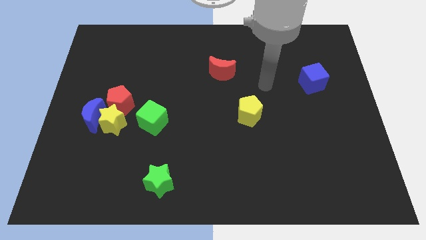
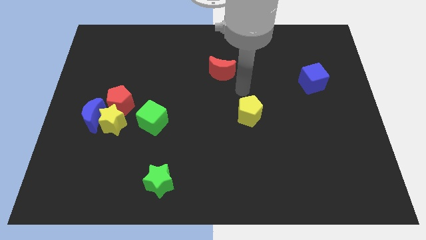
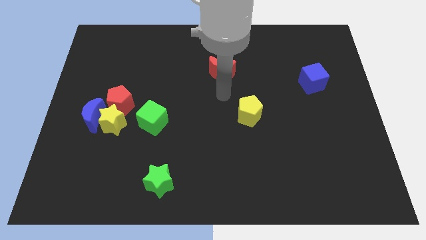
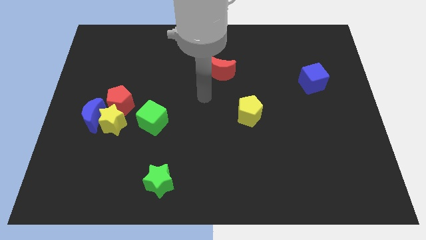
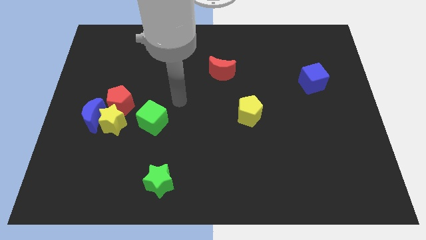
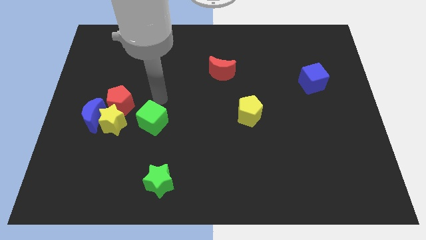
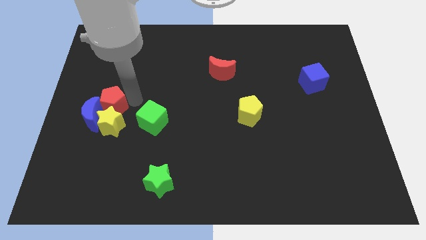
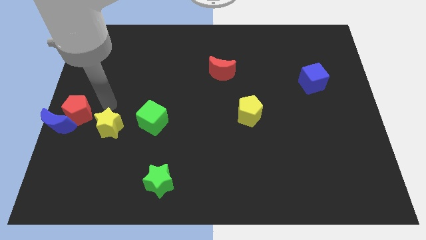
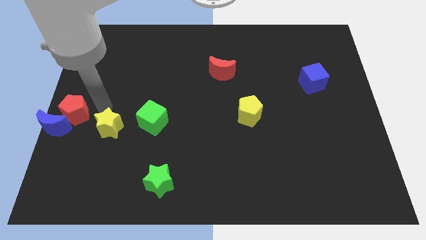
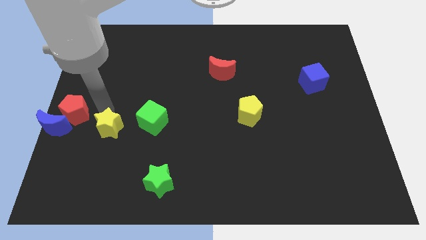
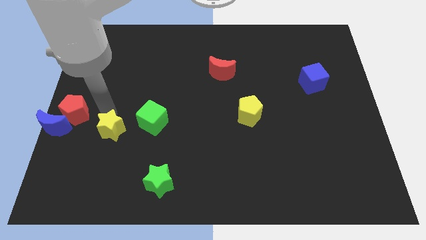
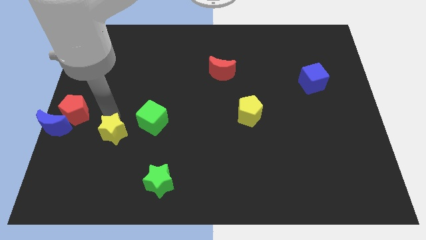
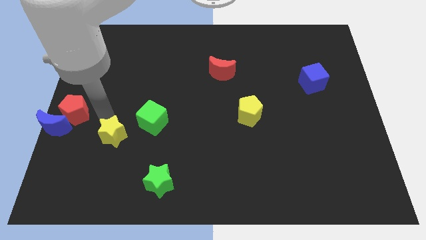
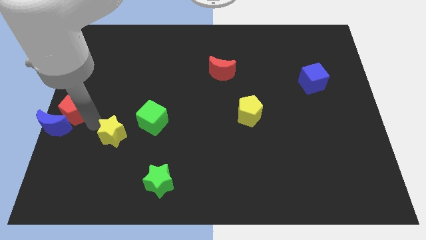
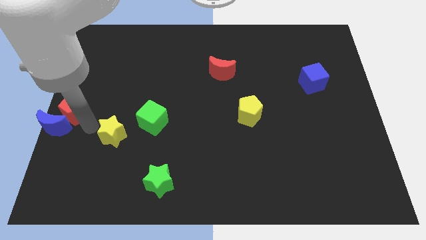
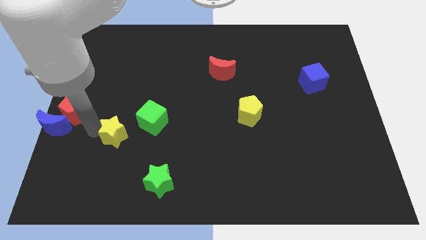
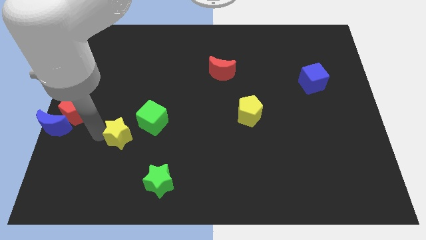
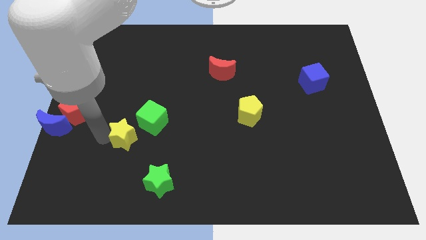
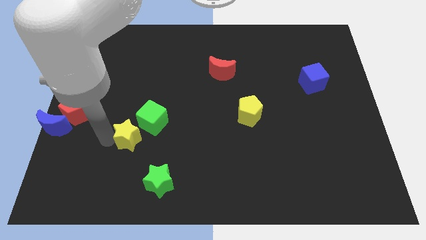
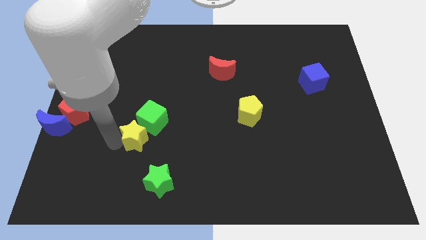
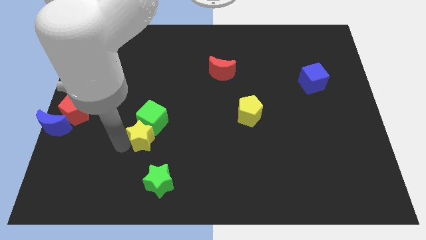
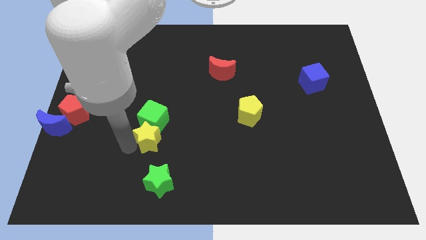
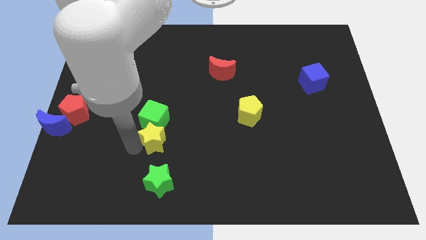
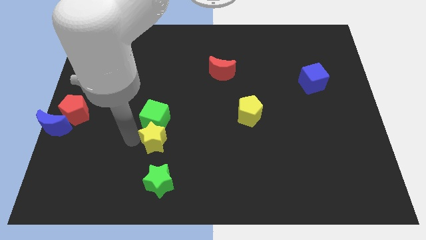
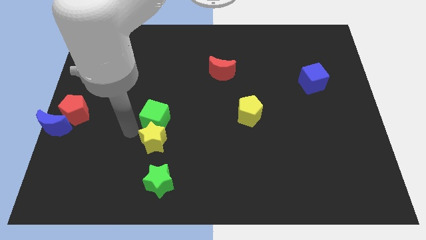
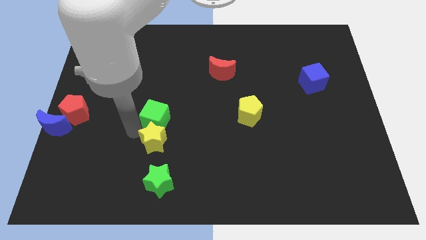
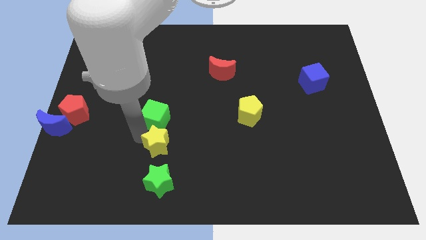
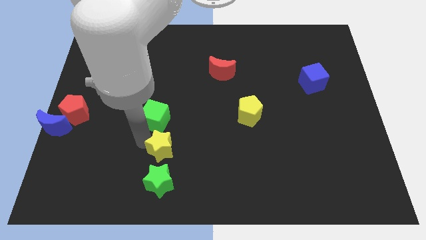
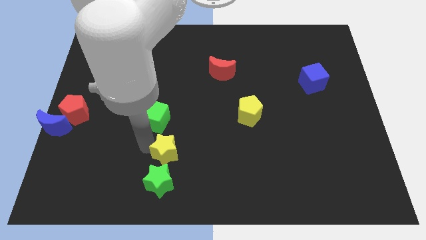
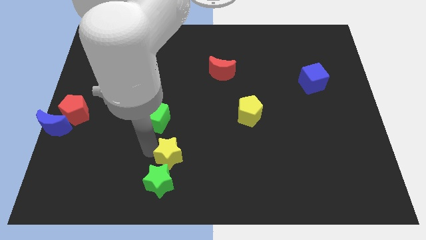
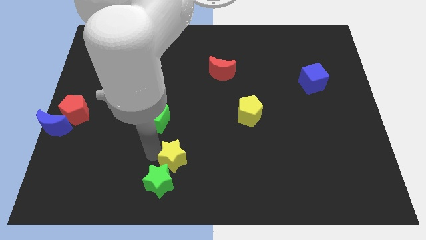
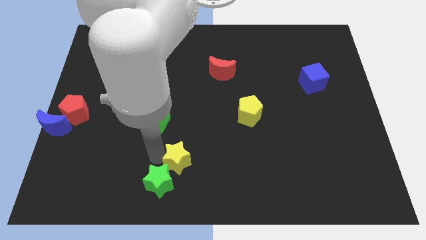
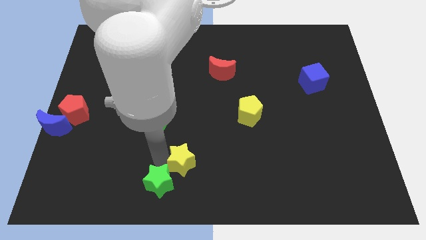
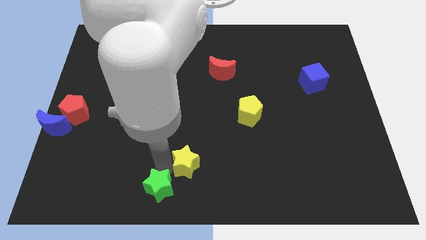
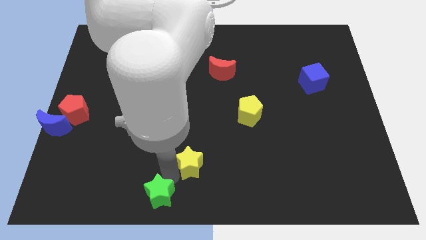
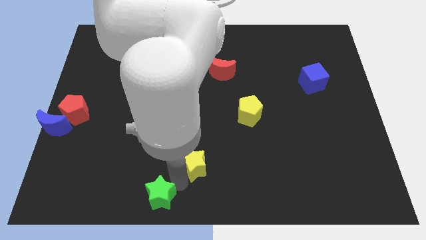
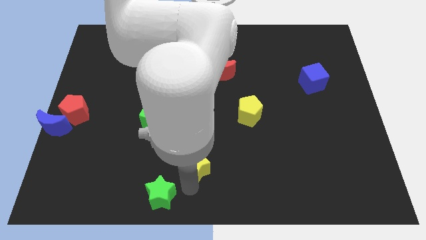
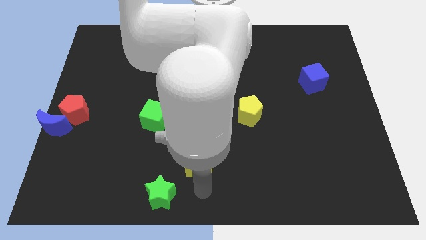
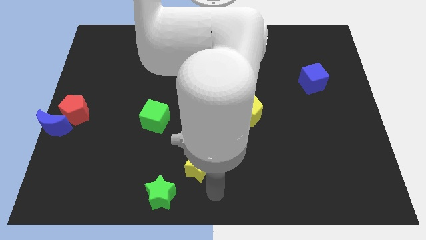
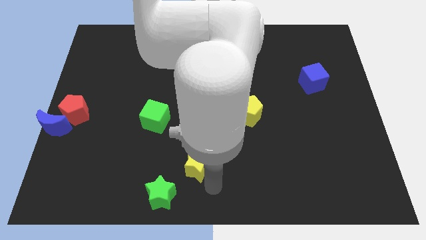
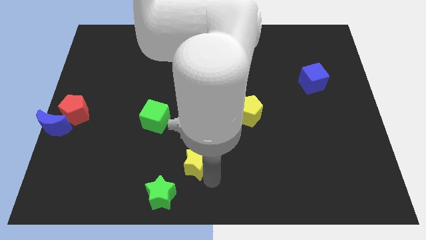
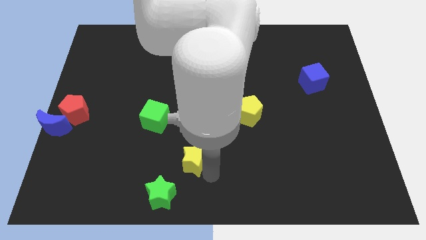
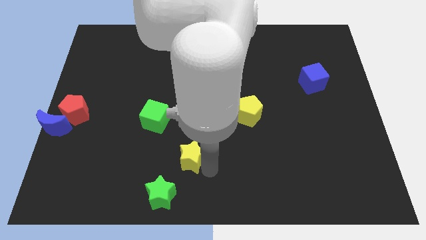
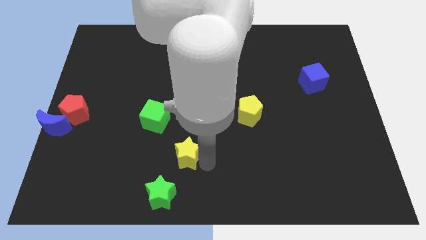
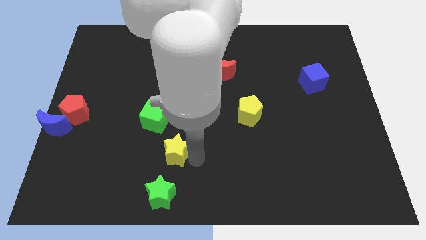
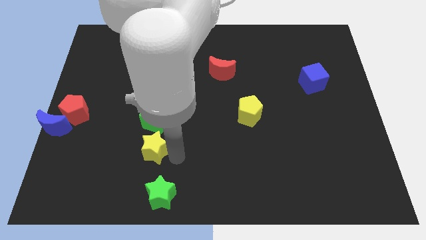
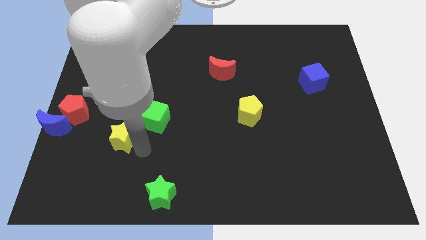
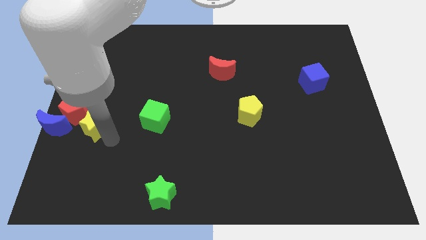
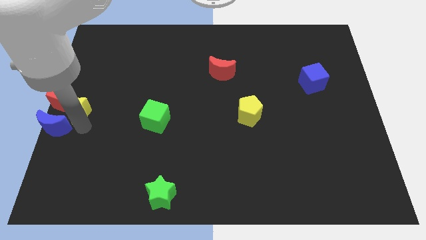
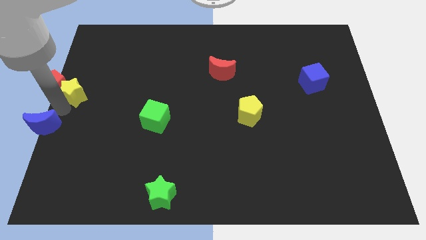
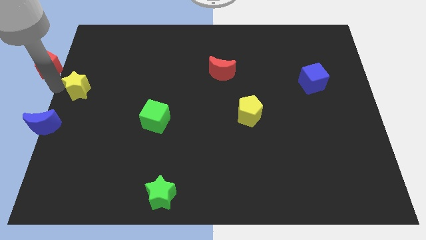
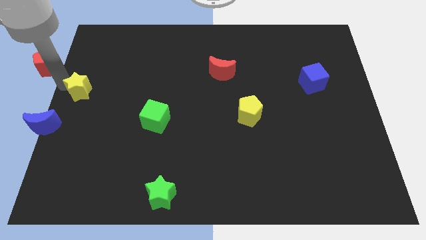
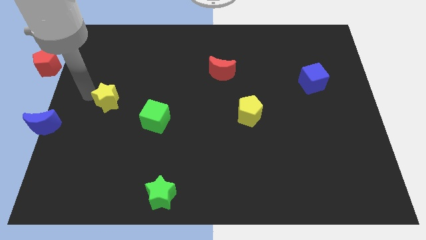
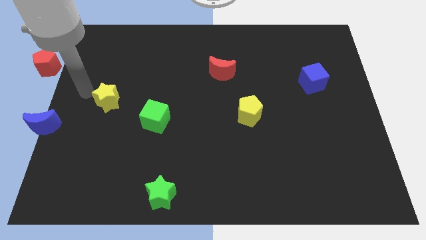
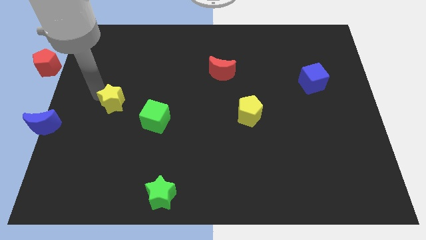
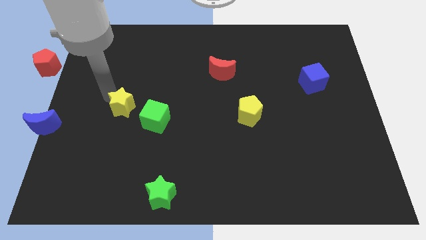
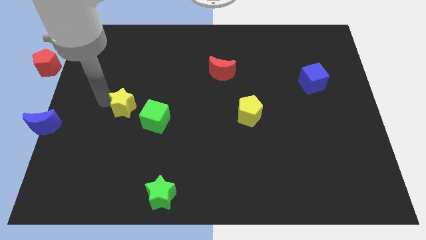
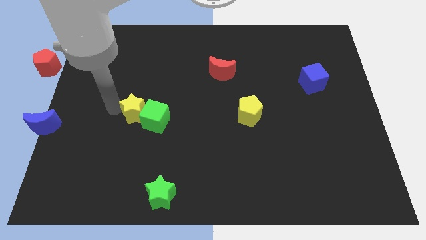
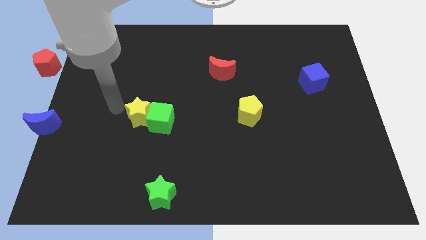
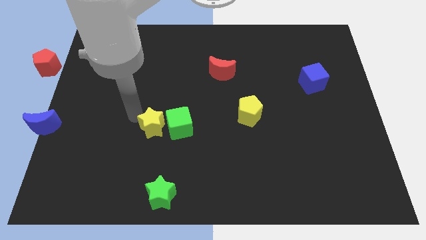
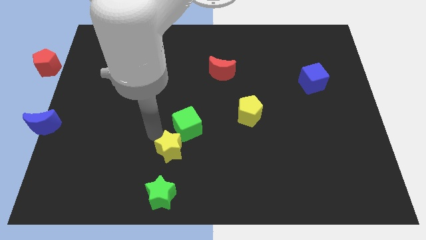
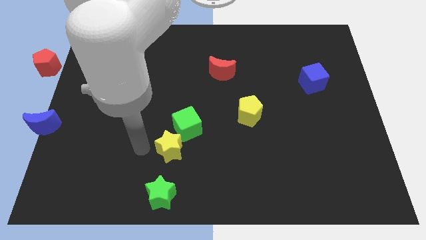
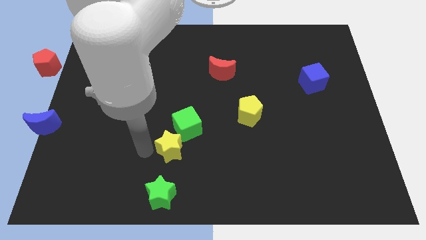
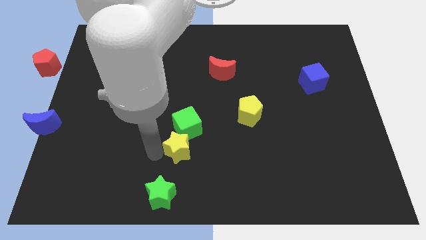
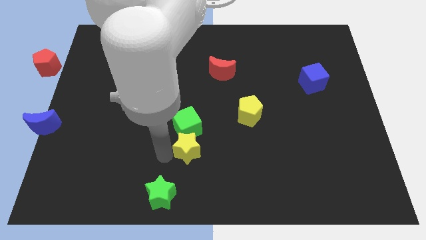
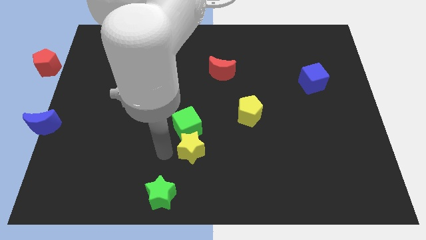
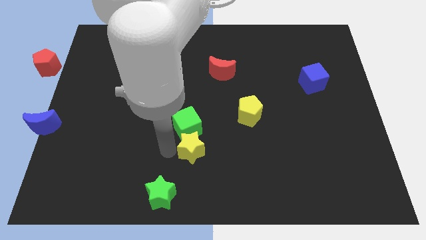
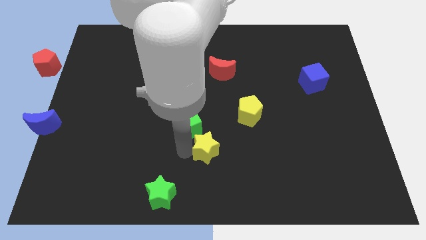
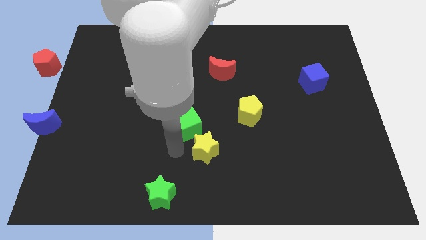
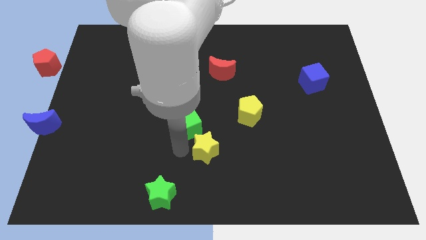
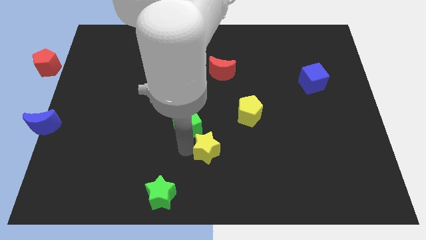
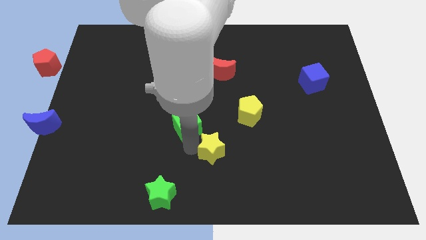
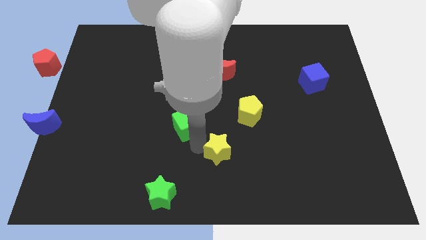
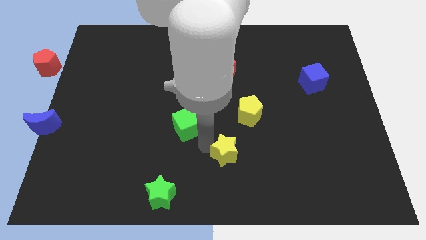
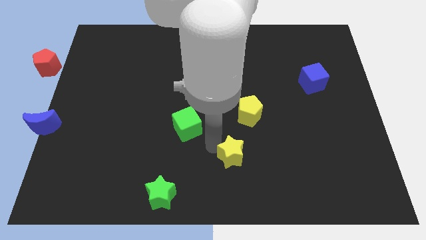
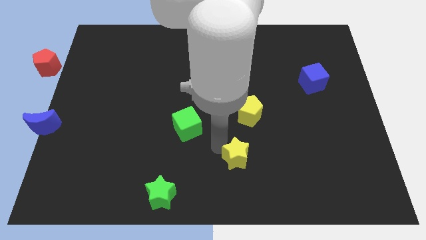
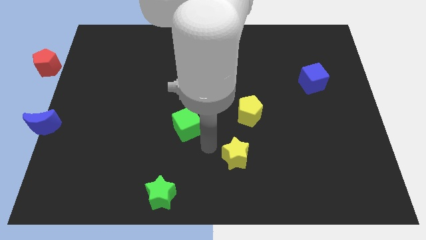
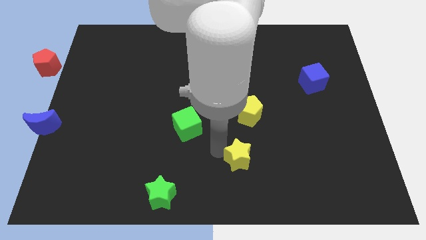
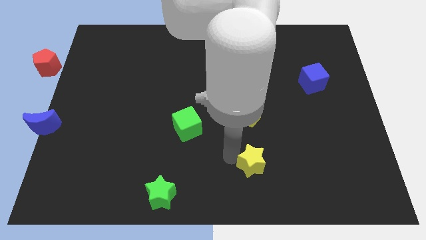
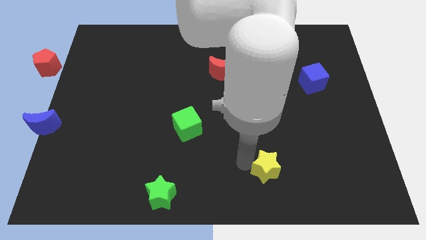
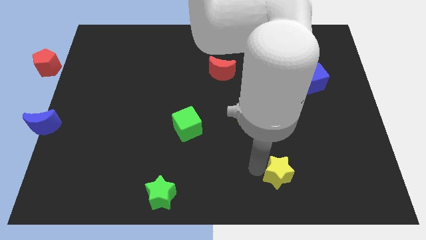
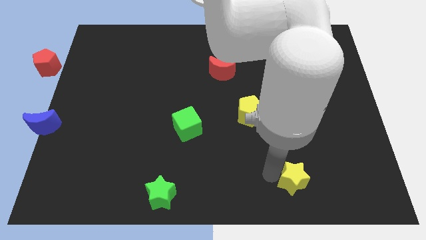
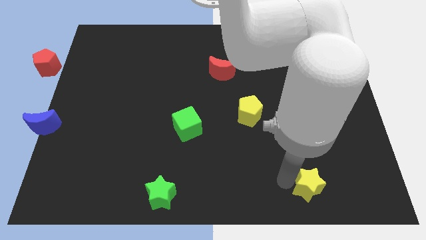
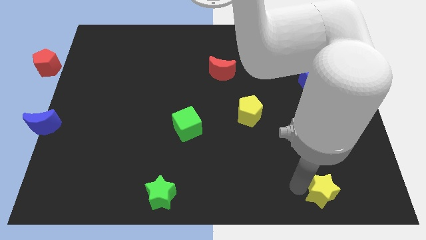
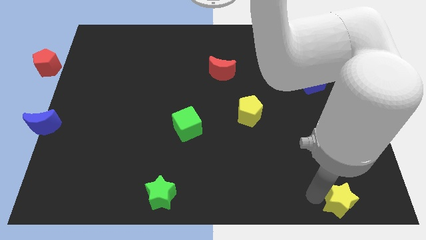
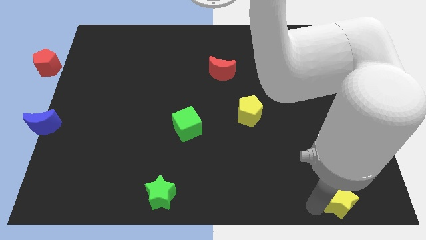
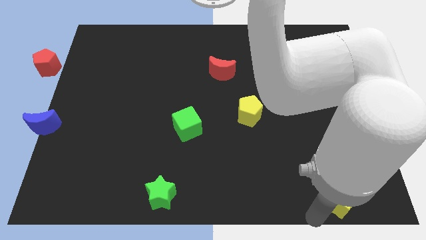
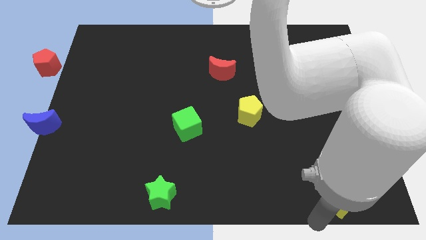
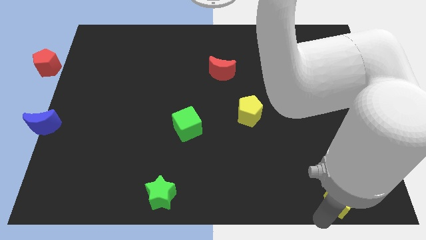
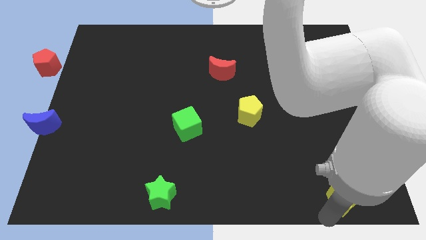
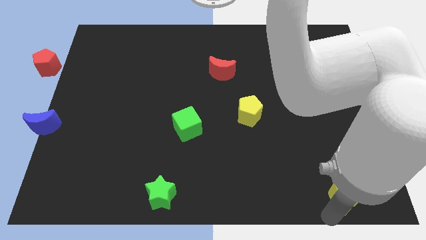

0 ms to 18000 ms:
move the yellow star to the bottom right
